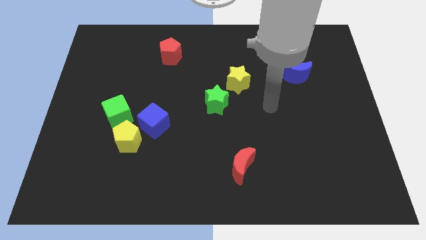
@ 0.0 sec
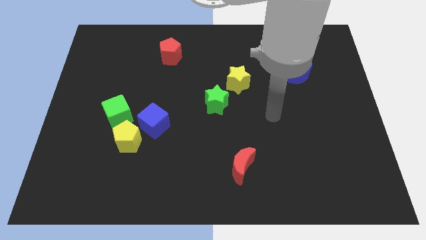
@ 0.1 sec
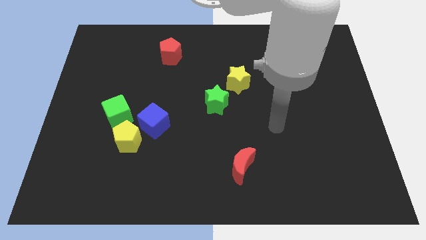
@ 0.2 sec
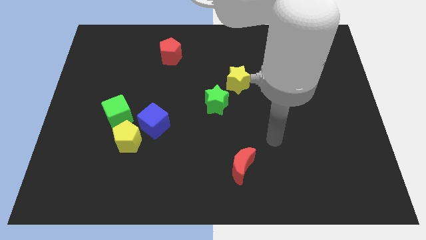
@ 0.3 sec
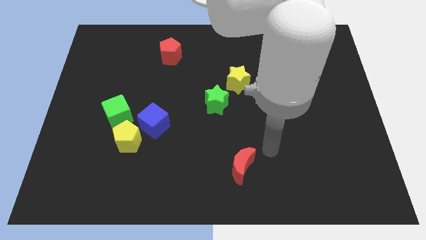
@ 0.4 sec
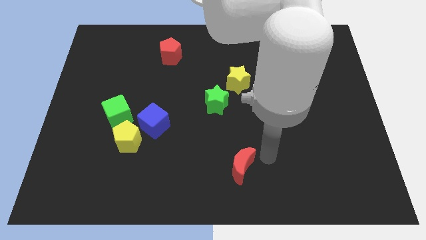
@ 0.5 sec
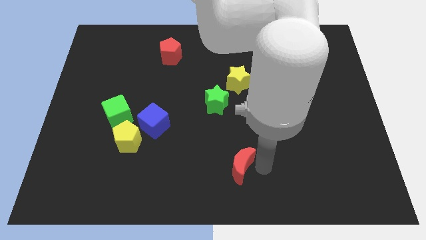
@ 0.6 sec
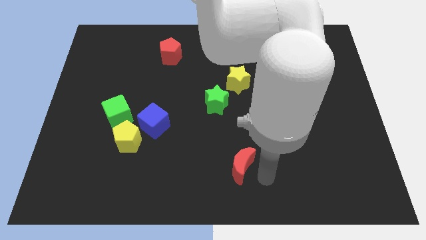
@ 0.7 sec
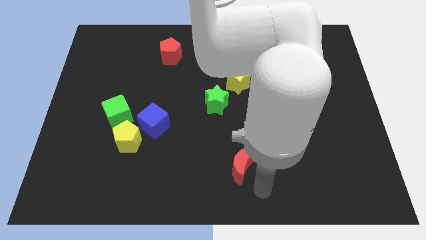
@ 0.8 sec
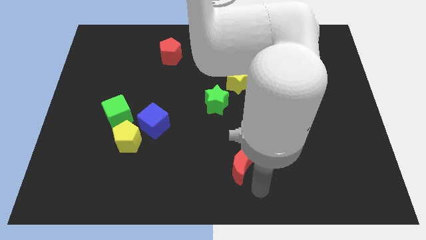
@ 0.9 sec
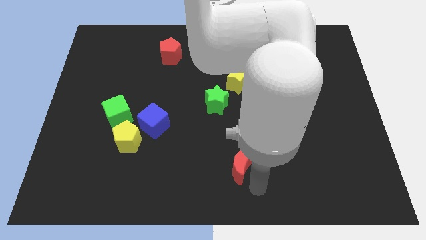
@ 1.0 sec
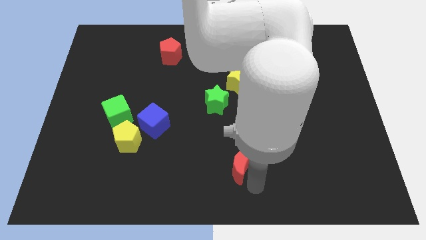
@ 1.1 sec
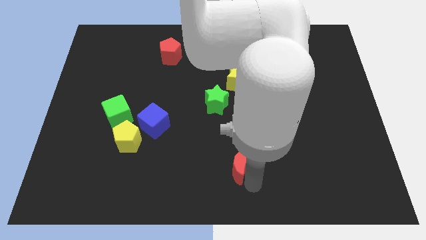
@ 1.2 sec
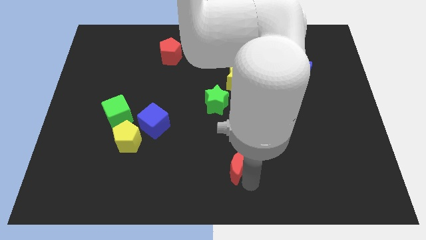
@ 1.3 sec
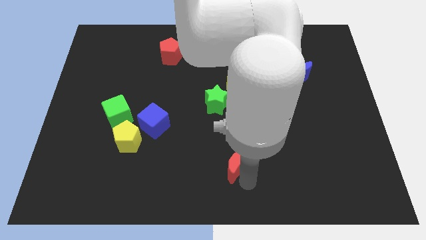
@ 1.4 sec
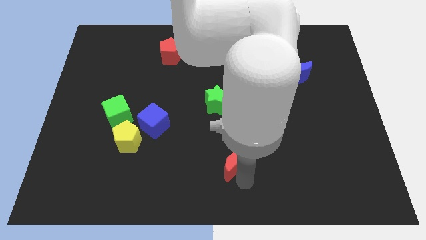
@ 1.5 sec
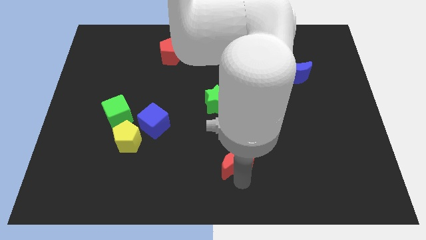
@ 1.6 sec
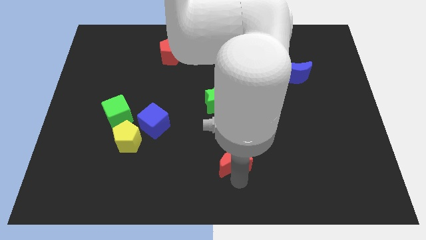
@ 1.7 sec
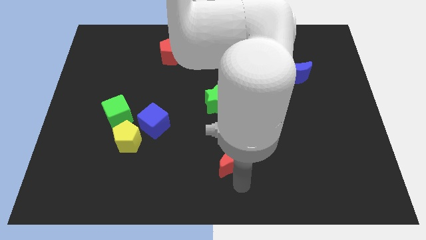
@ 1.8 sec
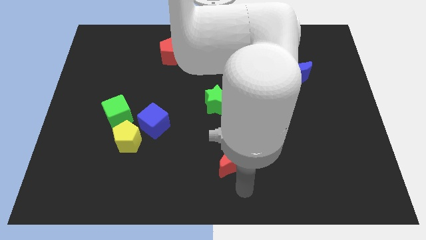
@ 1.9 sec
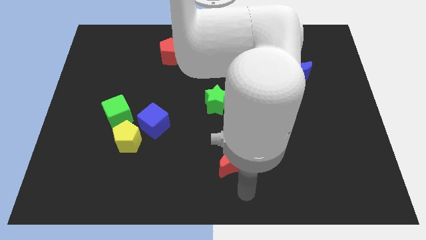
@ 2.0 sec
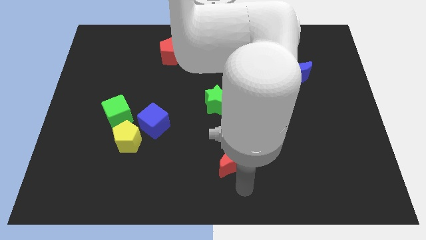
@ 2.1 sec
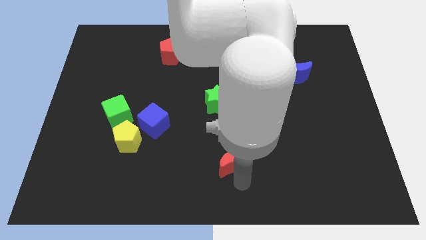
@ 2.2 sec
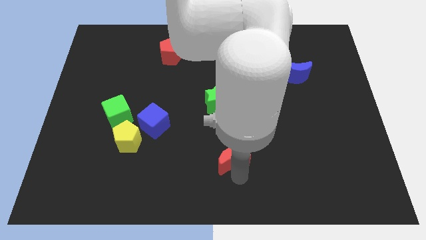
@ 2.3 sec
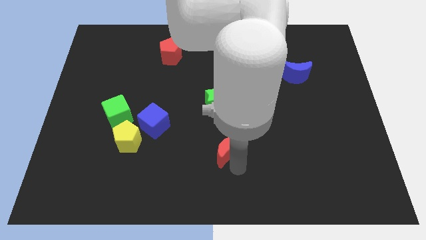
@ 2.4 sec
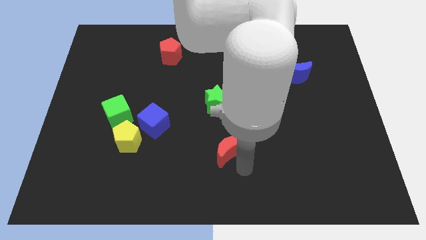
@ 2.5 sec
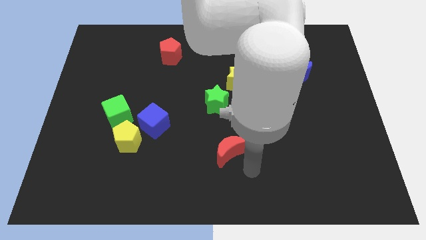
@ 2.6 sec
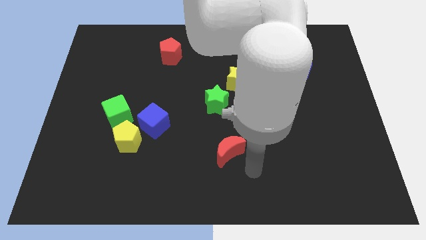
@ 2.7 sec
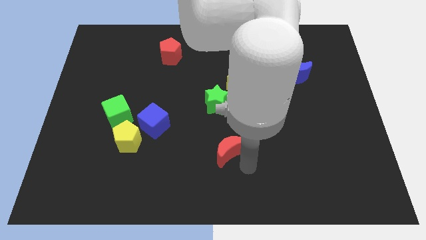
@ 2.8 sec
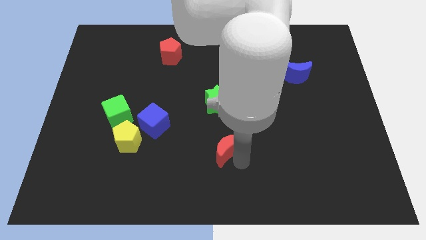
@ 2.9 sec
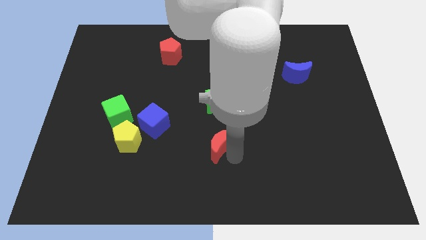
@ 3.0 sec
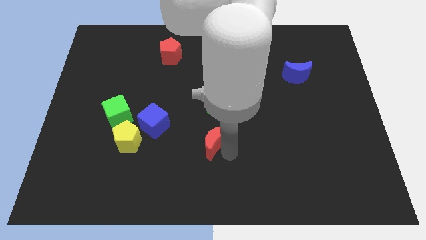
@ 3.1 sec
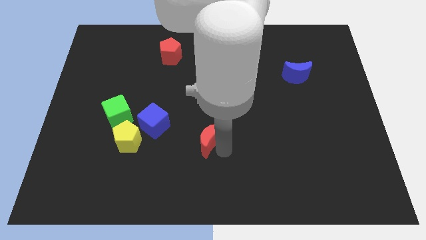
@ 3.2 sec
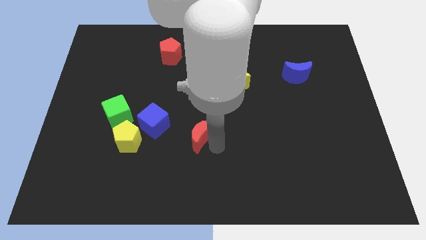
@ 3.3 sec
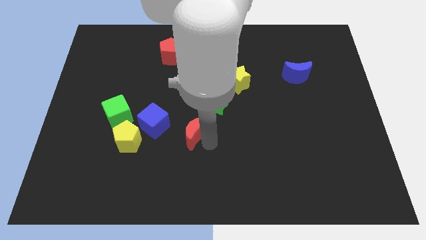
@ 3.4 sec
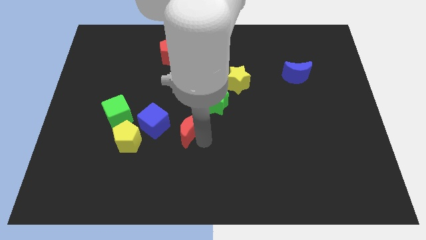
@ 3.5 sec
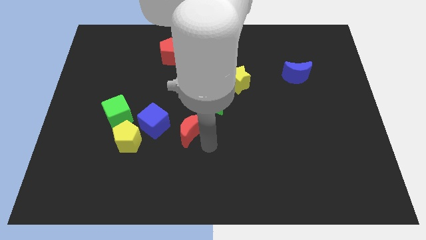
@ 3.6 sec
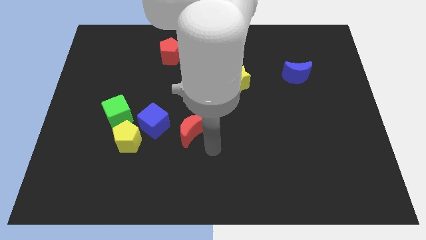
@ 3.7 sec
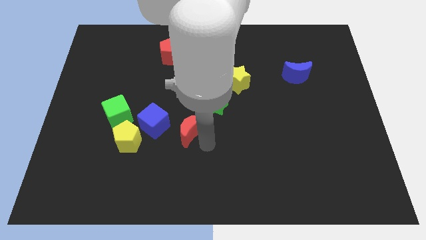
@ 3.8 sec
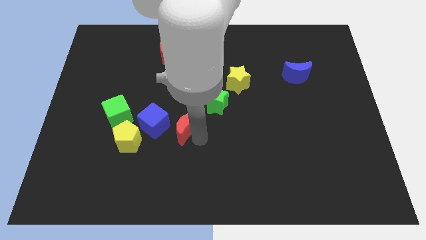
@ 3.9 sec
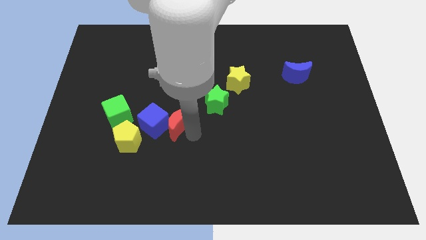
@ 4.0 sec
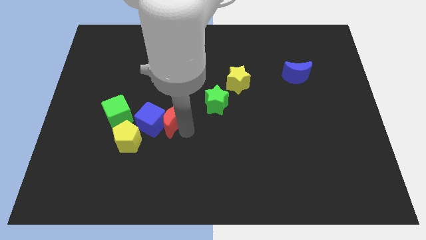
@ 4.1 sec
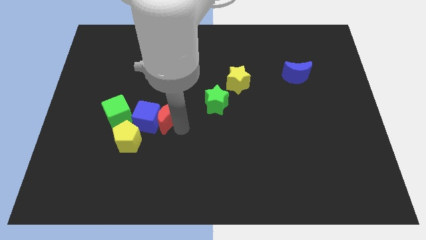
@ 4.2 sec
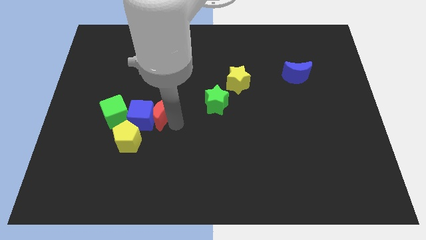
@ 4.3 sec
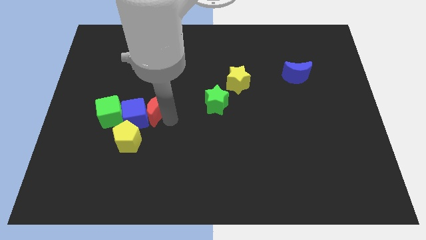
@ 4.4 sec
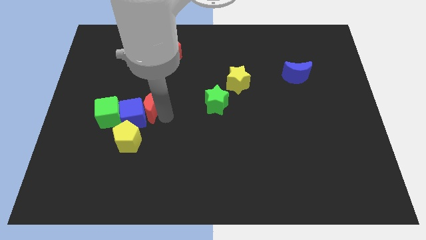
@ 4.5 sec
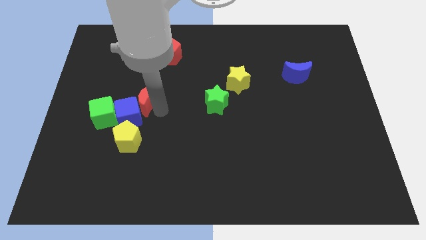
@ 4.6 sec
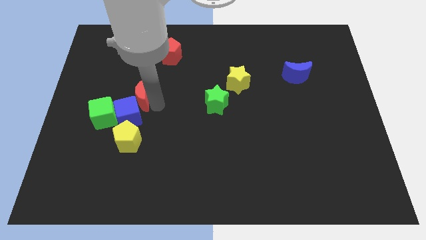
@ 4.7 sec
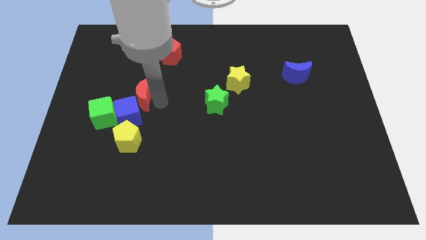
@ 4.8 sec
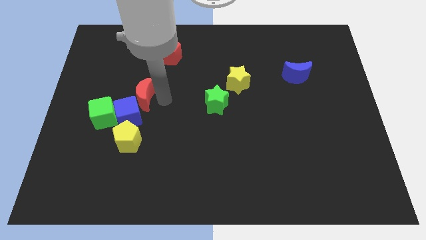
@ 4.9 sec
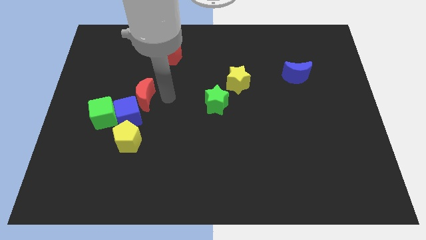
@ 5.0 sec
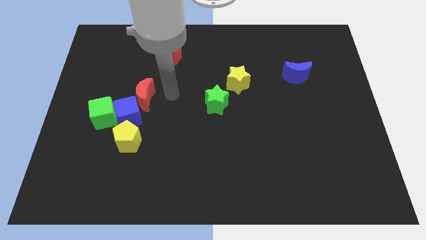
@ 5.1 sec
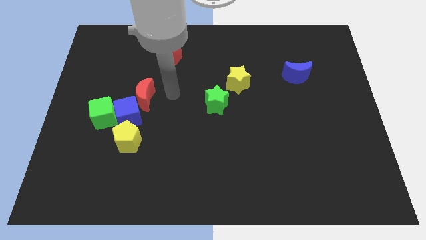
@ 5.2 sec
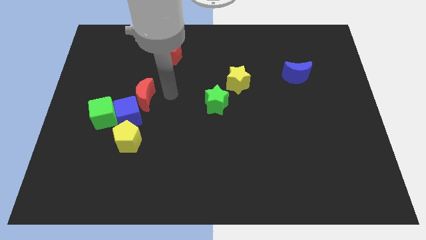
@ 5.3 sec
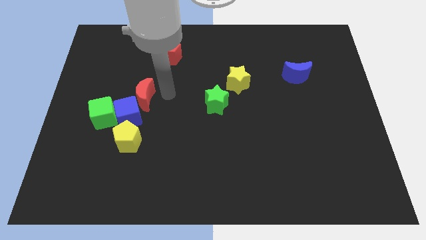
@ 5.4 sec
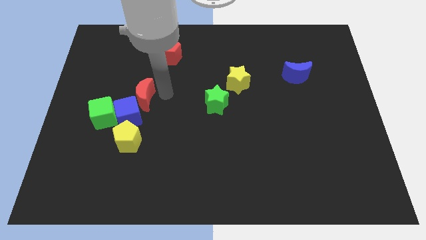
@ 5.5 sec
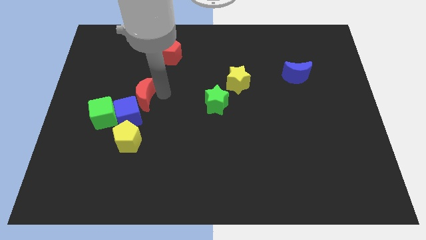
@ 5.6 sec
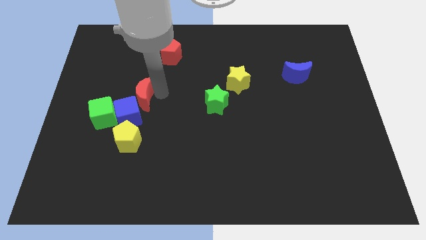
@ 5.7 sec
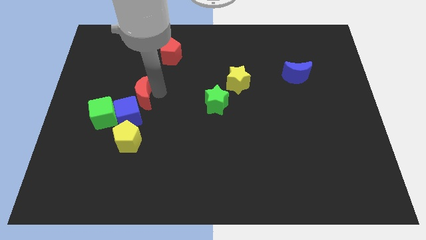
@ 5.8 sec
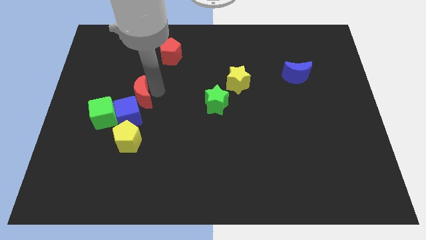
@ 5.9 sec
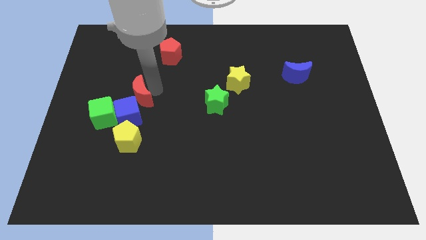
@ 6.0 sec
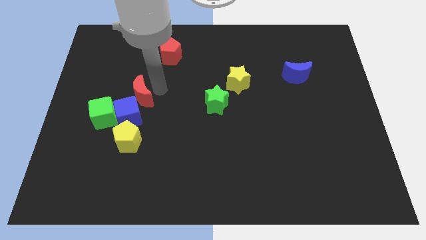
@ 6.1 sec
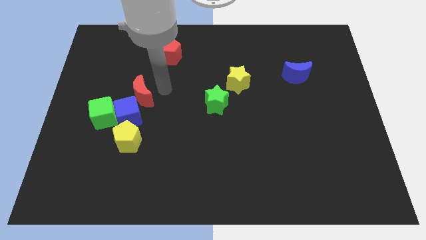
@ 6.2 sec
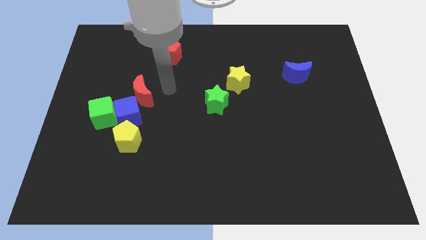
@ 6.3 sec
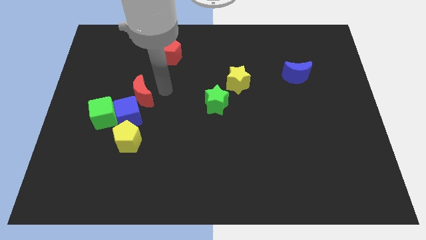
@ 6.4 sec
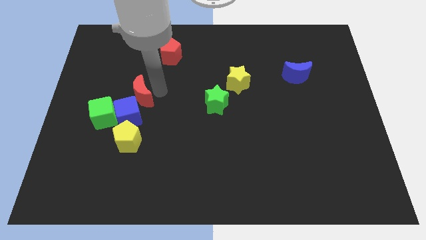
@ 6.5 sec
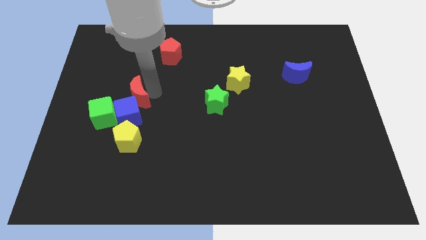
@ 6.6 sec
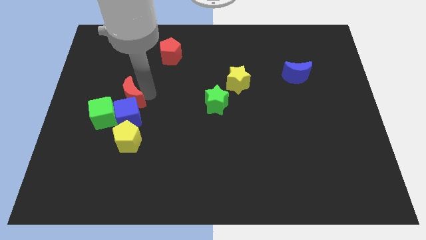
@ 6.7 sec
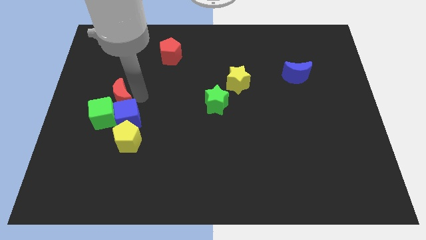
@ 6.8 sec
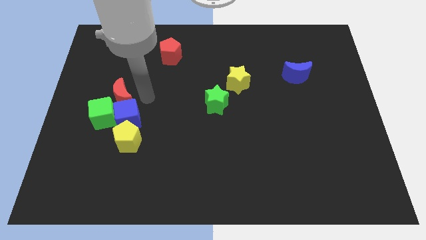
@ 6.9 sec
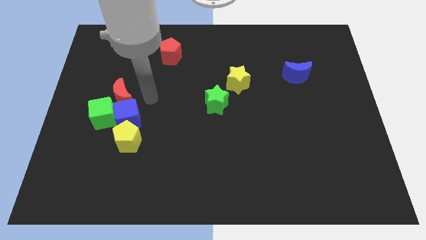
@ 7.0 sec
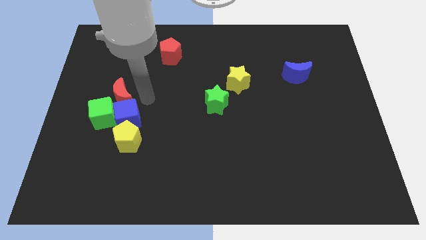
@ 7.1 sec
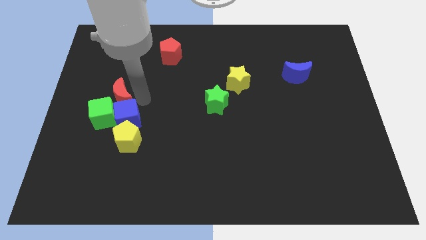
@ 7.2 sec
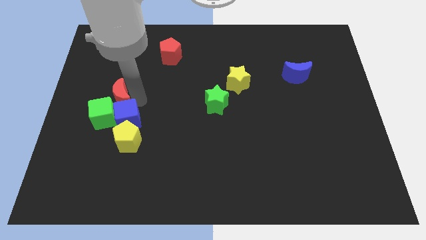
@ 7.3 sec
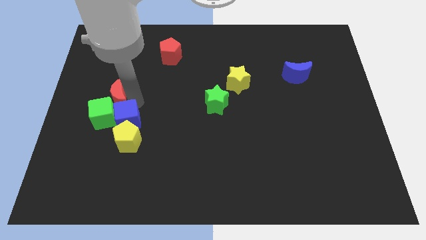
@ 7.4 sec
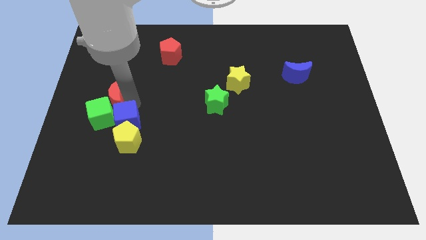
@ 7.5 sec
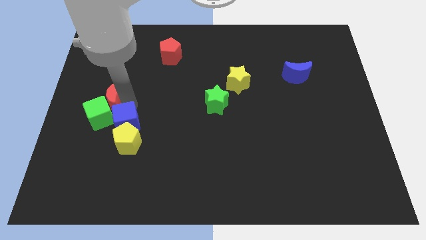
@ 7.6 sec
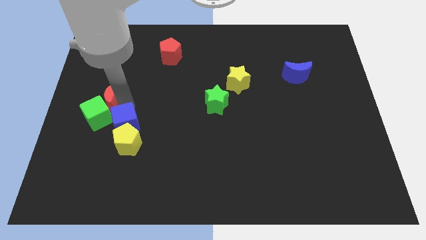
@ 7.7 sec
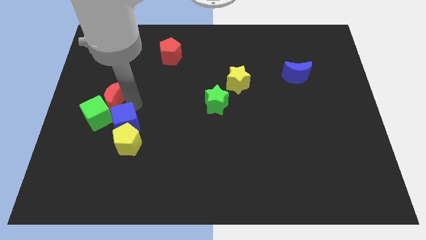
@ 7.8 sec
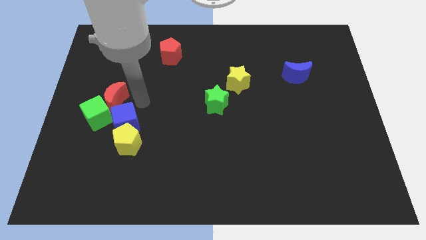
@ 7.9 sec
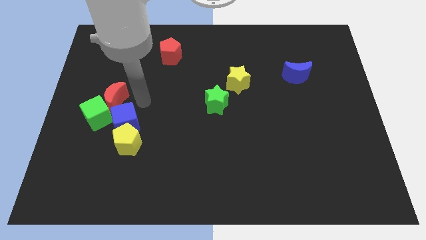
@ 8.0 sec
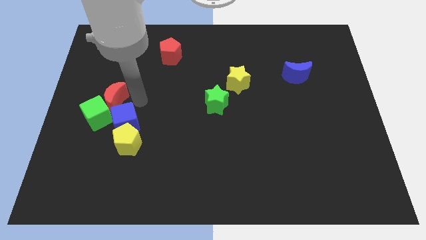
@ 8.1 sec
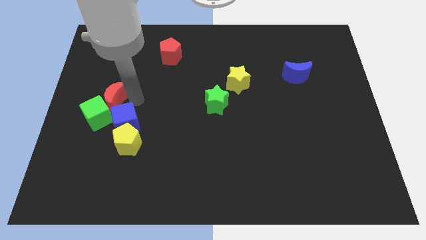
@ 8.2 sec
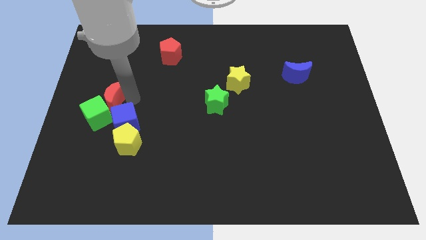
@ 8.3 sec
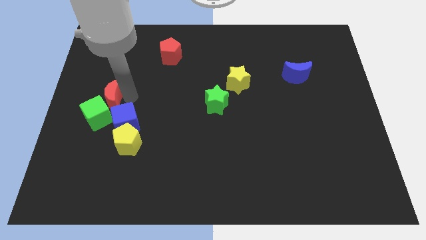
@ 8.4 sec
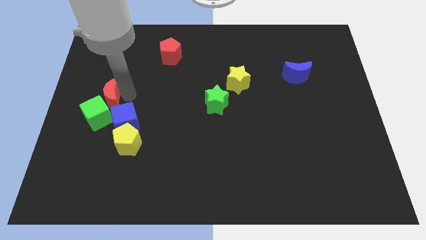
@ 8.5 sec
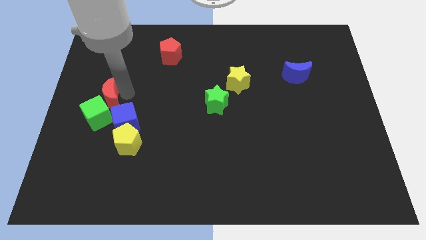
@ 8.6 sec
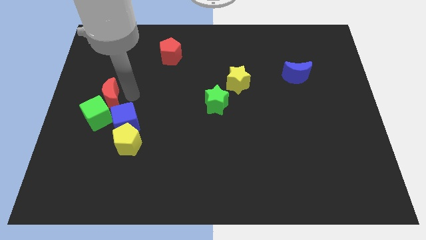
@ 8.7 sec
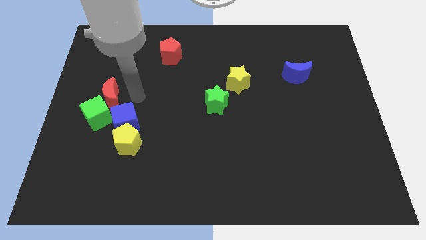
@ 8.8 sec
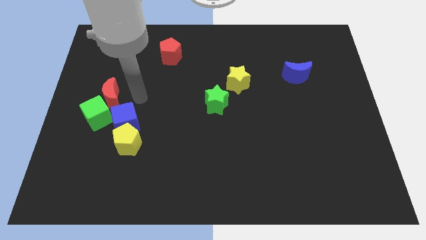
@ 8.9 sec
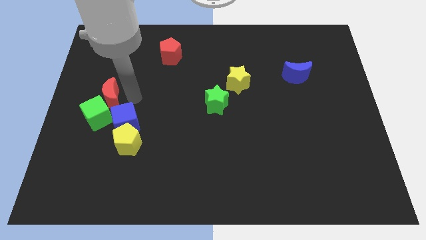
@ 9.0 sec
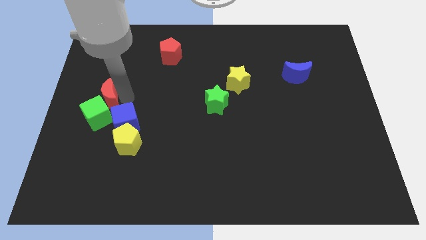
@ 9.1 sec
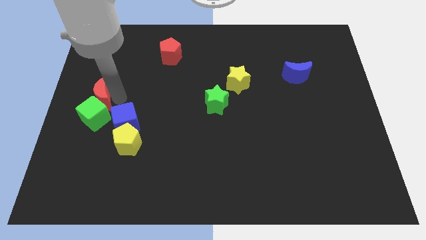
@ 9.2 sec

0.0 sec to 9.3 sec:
slide the red moon to the top left of the green cube
